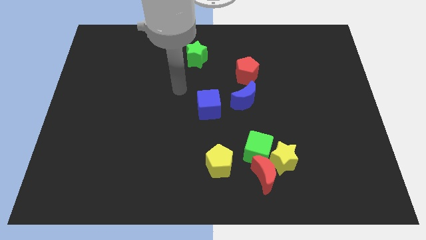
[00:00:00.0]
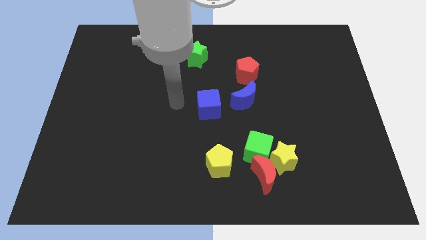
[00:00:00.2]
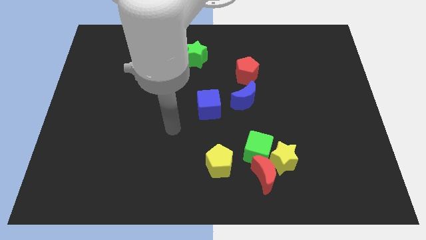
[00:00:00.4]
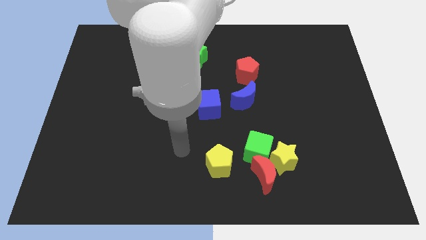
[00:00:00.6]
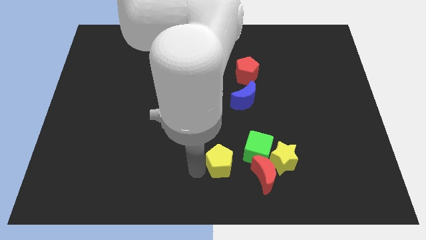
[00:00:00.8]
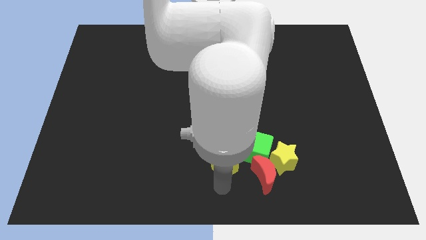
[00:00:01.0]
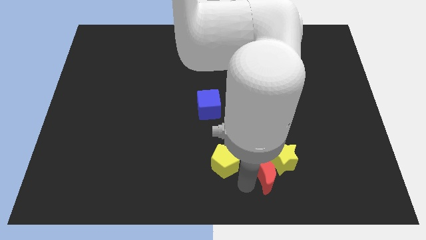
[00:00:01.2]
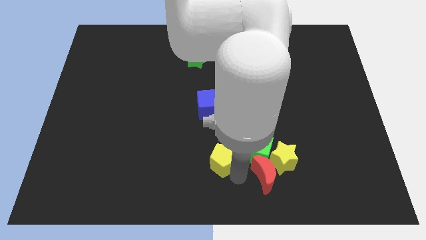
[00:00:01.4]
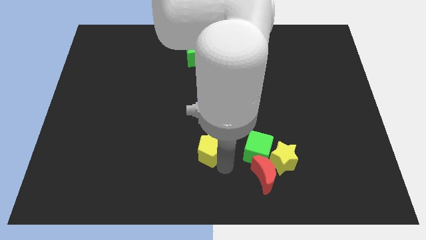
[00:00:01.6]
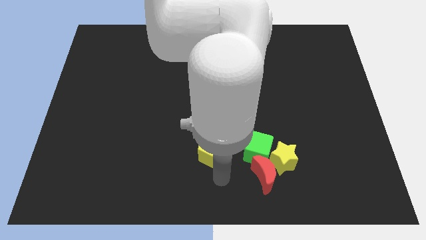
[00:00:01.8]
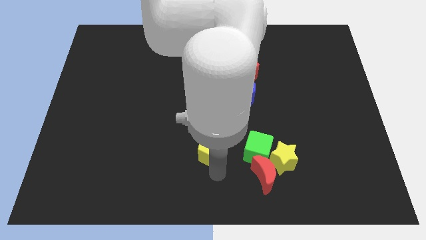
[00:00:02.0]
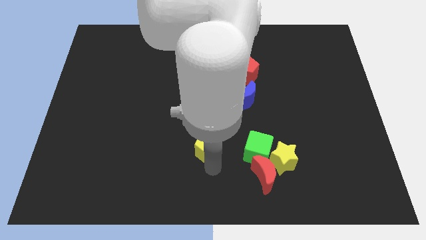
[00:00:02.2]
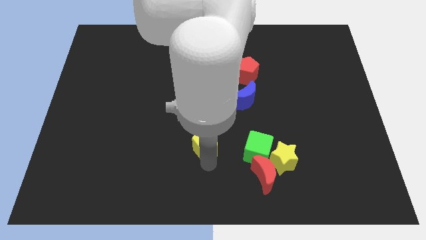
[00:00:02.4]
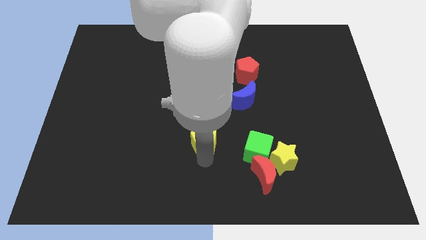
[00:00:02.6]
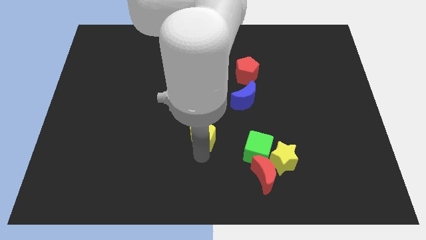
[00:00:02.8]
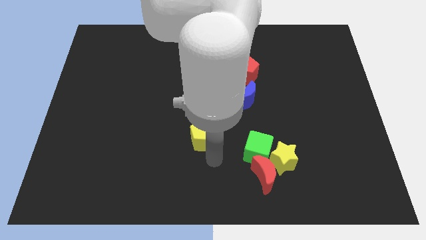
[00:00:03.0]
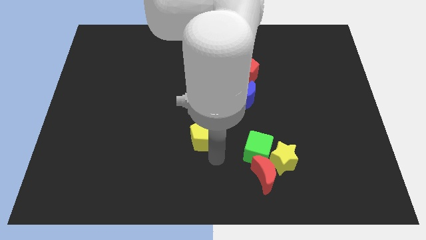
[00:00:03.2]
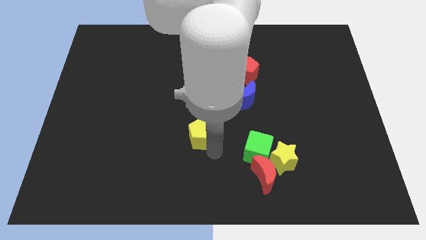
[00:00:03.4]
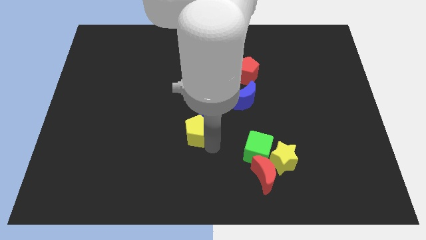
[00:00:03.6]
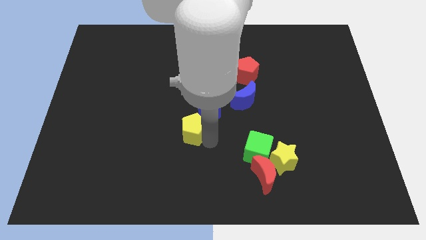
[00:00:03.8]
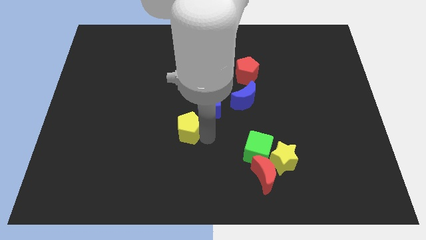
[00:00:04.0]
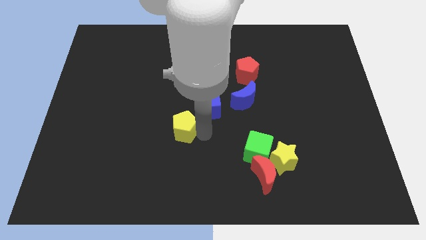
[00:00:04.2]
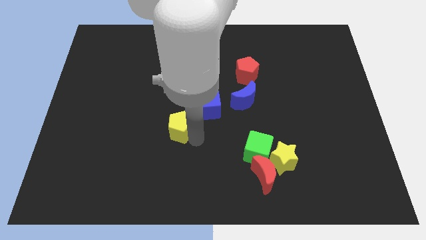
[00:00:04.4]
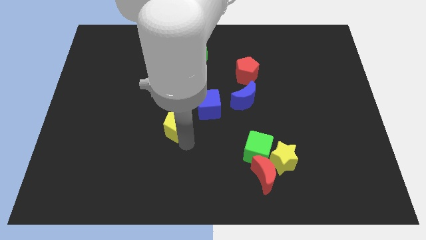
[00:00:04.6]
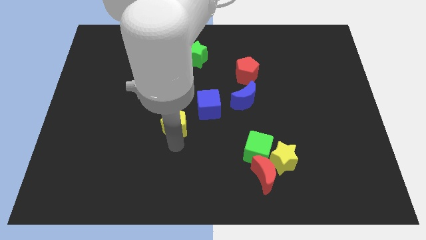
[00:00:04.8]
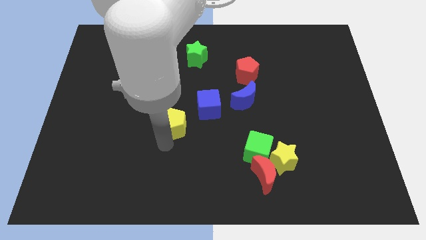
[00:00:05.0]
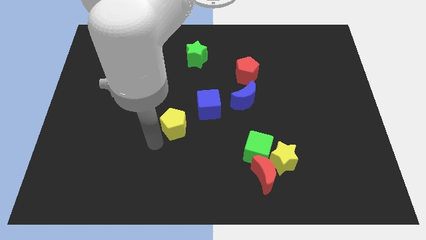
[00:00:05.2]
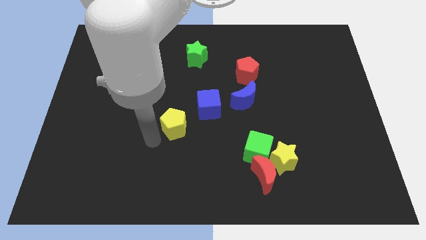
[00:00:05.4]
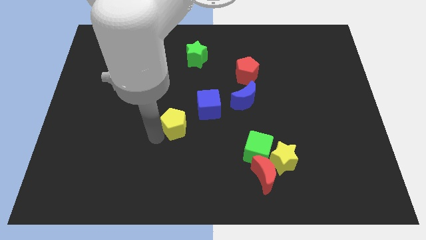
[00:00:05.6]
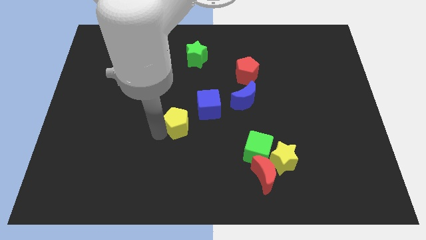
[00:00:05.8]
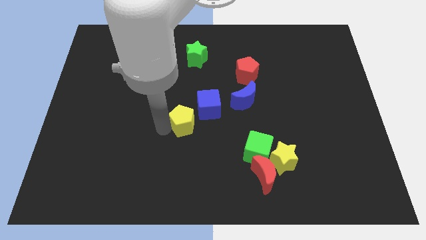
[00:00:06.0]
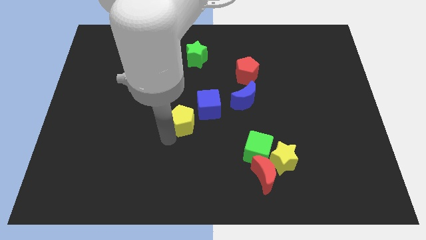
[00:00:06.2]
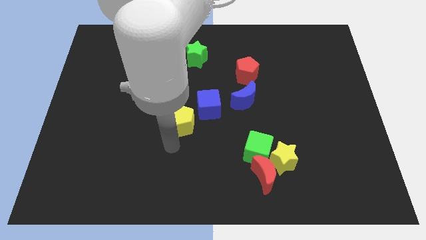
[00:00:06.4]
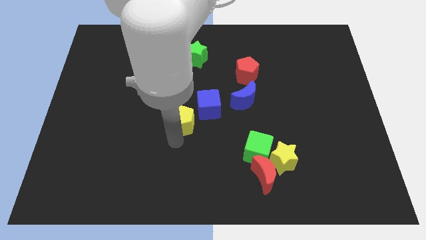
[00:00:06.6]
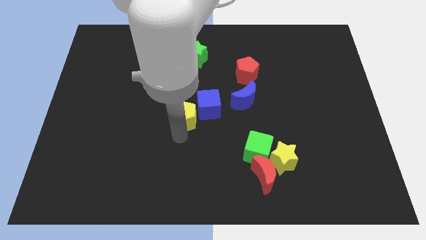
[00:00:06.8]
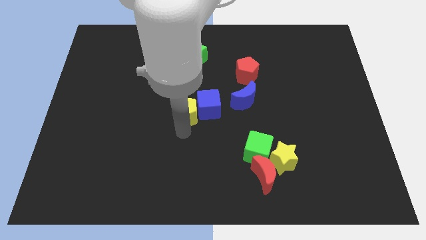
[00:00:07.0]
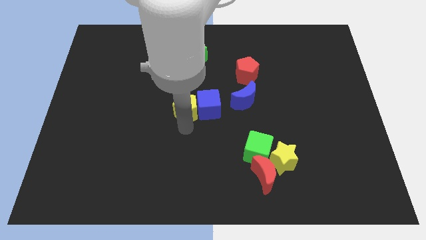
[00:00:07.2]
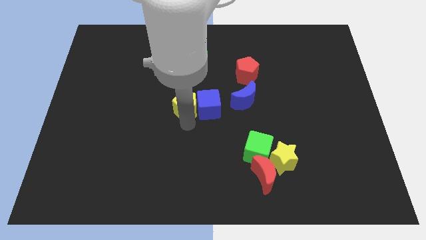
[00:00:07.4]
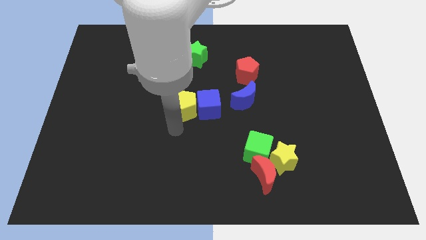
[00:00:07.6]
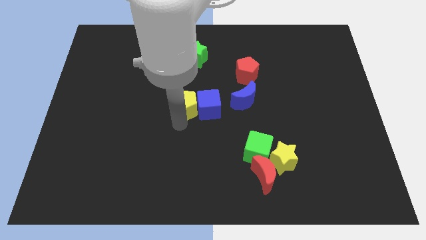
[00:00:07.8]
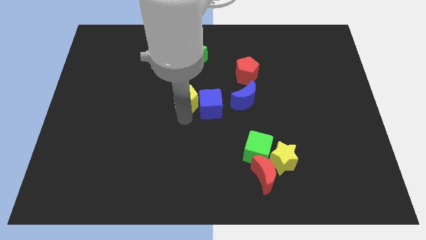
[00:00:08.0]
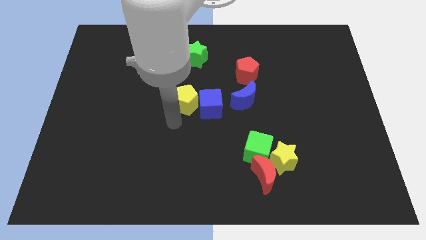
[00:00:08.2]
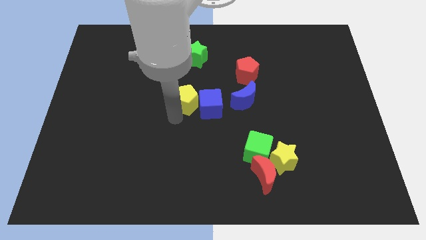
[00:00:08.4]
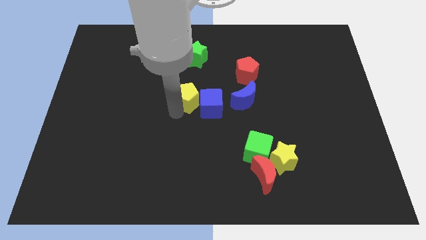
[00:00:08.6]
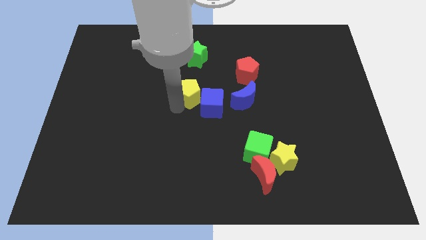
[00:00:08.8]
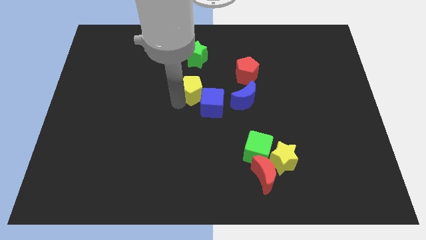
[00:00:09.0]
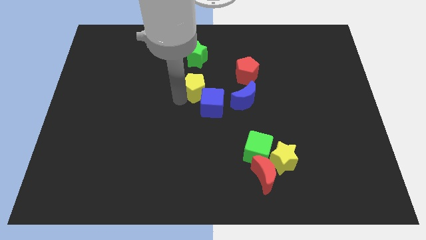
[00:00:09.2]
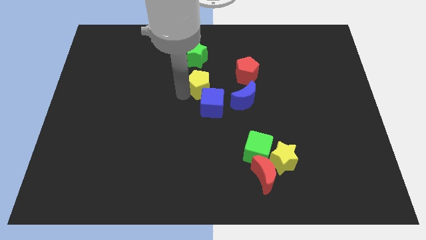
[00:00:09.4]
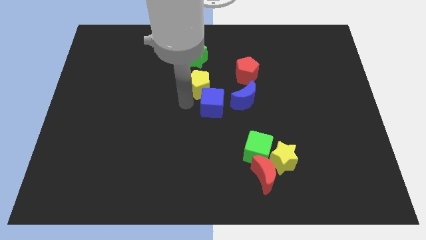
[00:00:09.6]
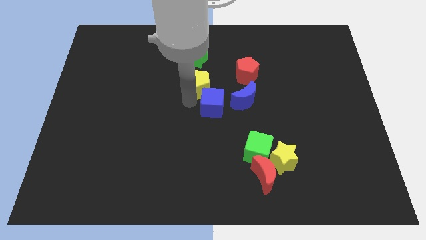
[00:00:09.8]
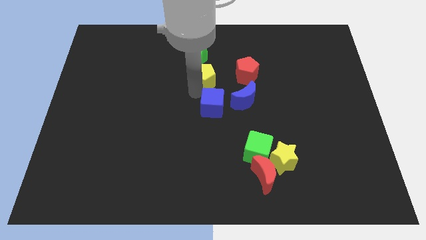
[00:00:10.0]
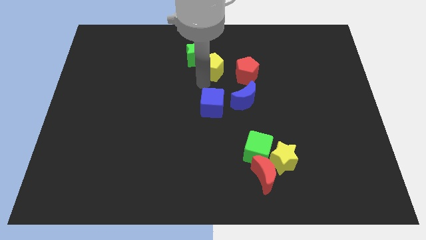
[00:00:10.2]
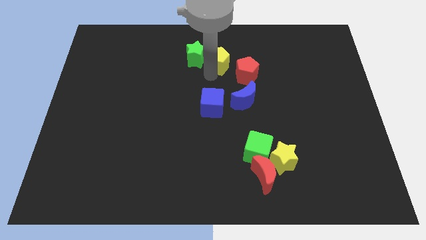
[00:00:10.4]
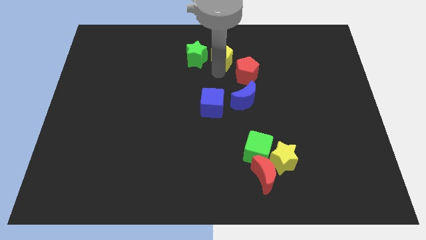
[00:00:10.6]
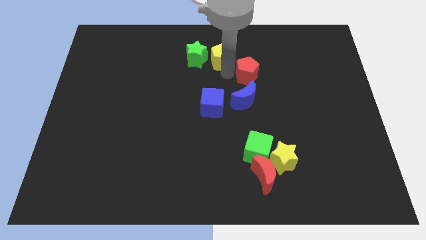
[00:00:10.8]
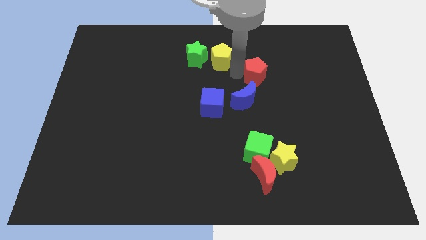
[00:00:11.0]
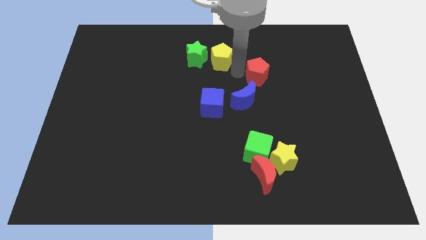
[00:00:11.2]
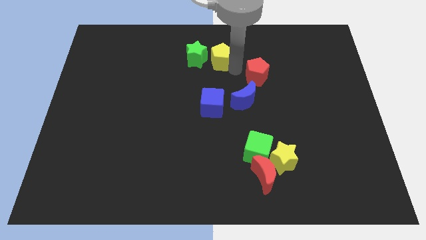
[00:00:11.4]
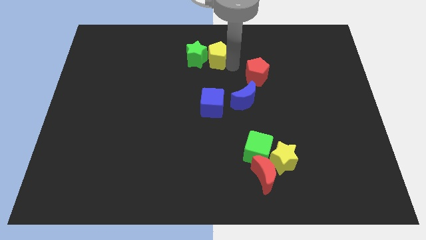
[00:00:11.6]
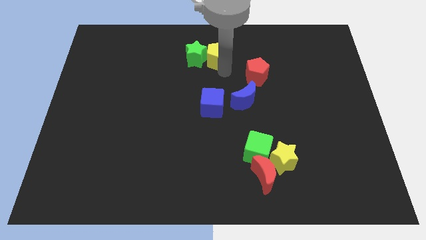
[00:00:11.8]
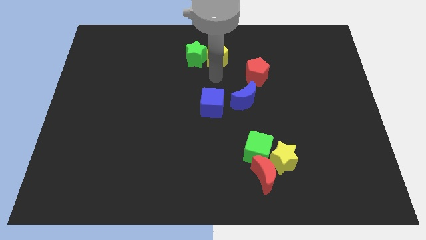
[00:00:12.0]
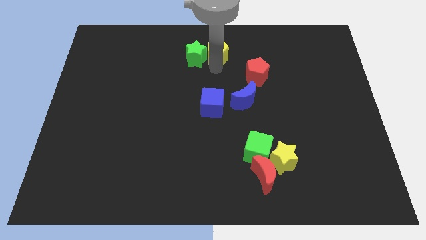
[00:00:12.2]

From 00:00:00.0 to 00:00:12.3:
slide the yellow pentagon to the towards your base

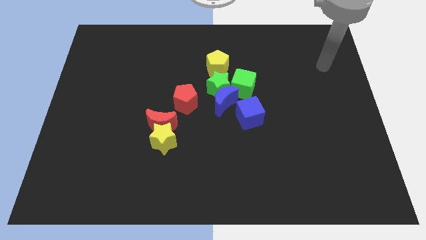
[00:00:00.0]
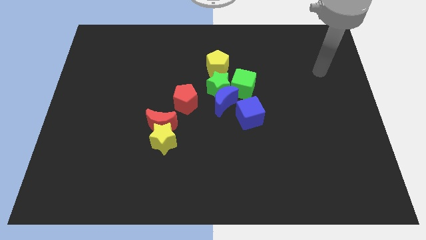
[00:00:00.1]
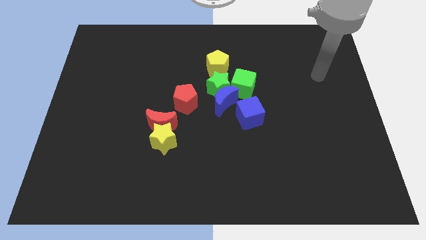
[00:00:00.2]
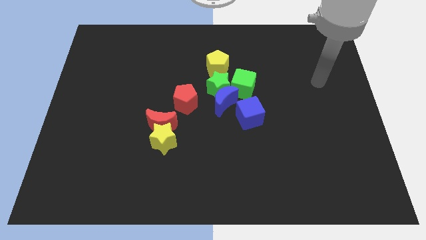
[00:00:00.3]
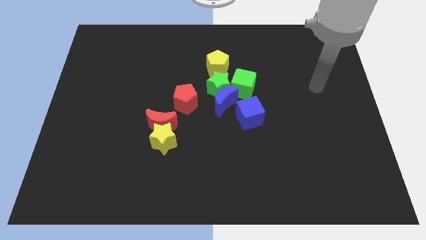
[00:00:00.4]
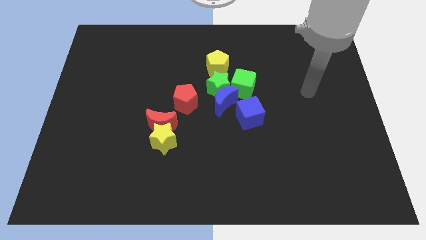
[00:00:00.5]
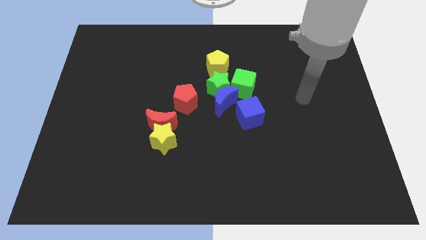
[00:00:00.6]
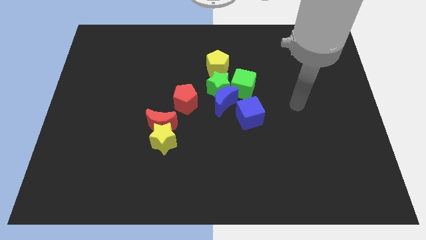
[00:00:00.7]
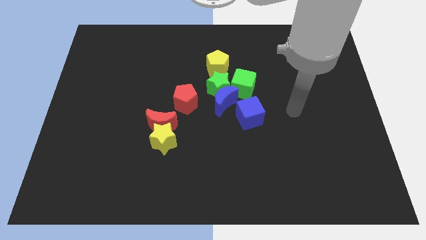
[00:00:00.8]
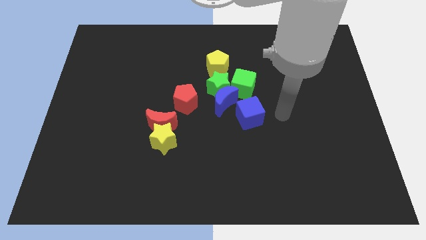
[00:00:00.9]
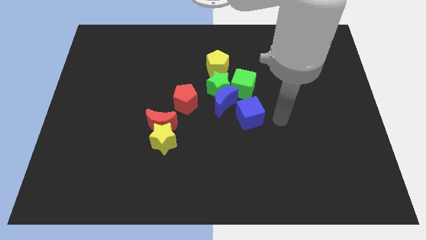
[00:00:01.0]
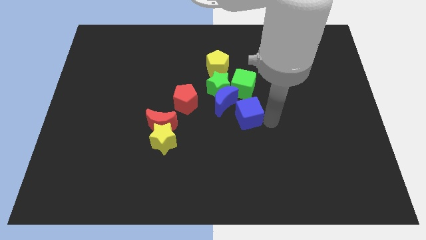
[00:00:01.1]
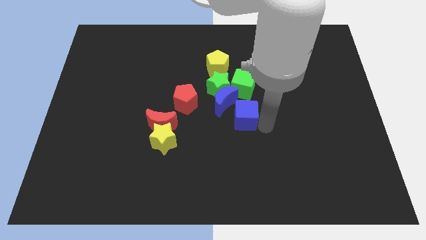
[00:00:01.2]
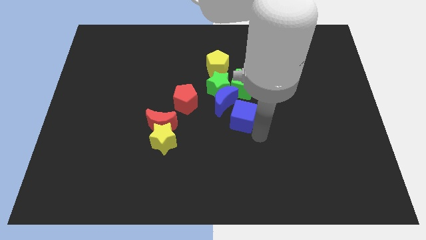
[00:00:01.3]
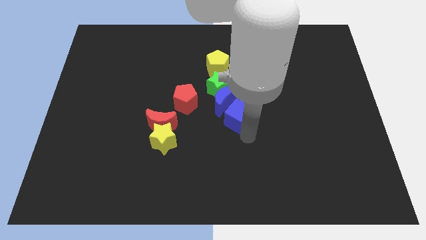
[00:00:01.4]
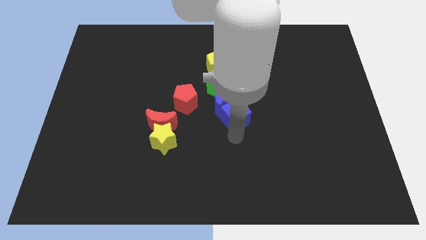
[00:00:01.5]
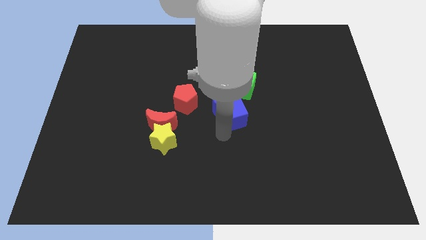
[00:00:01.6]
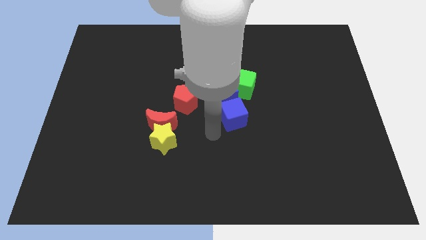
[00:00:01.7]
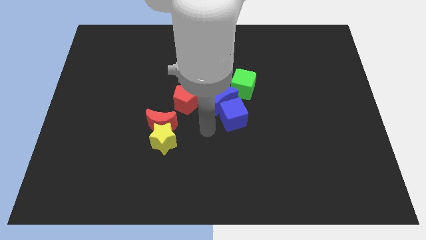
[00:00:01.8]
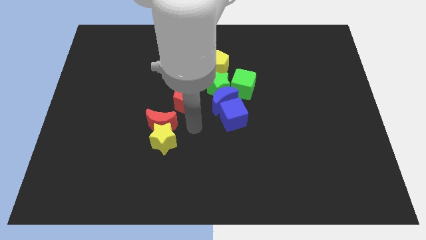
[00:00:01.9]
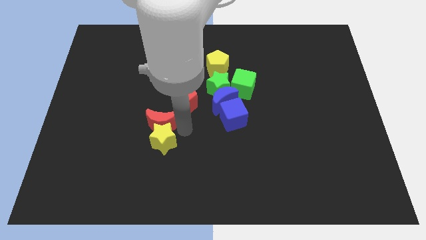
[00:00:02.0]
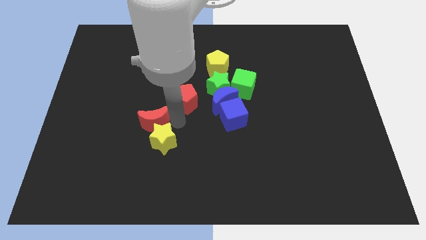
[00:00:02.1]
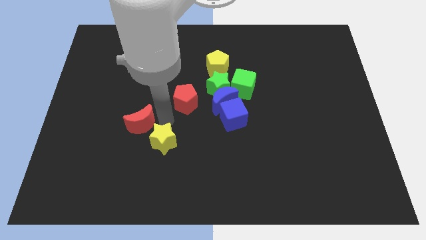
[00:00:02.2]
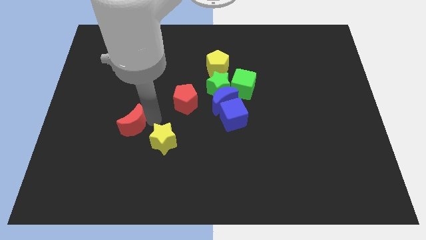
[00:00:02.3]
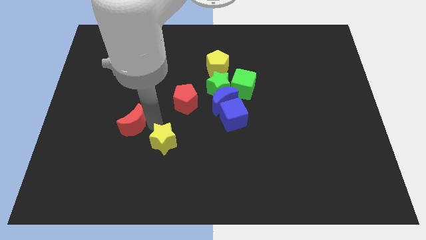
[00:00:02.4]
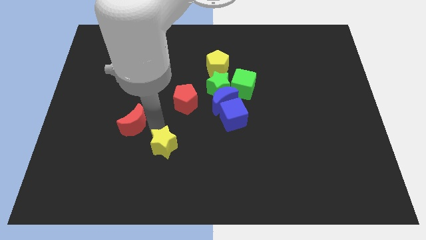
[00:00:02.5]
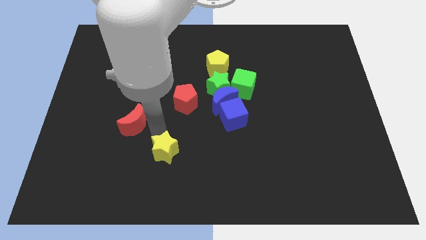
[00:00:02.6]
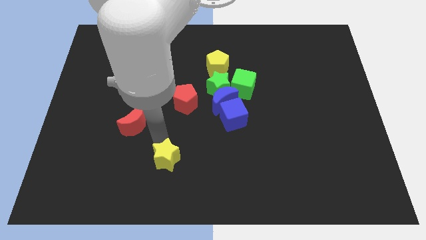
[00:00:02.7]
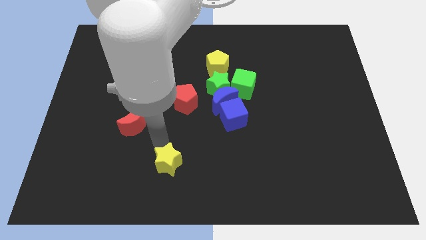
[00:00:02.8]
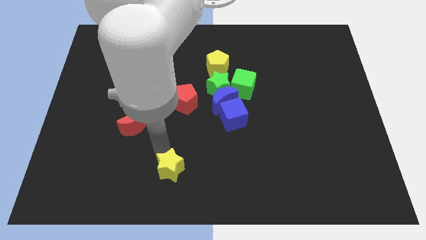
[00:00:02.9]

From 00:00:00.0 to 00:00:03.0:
put the yellow star to the bottom
